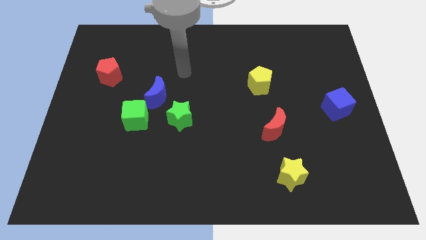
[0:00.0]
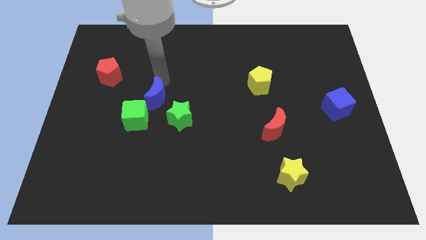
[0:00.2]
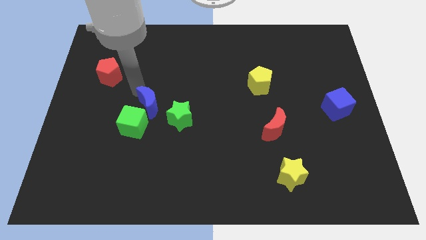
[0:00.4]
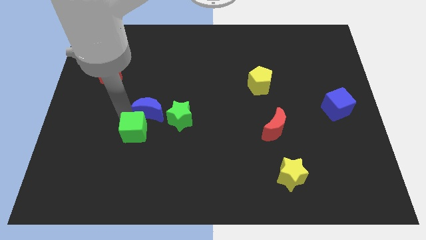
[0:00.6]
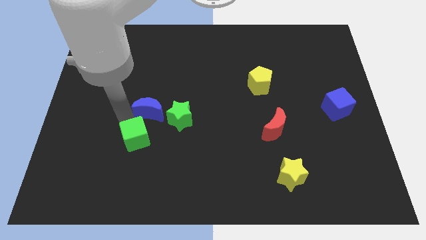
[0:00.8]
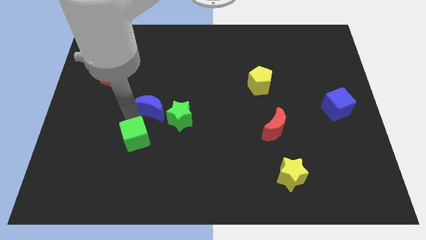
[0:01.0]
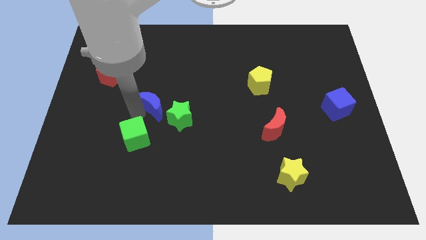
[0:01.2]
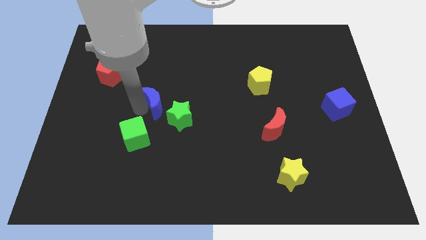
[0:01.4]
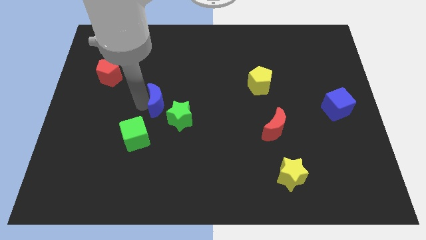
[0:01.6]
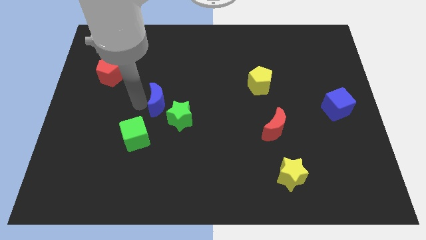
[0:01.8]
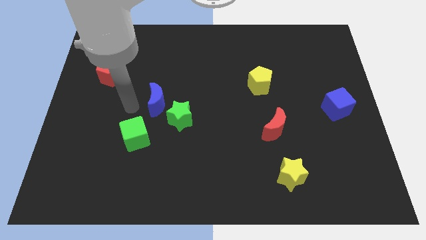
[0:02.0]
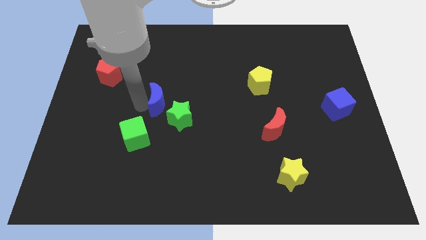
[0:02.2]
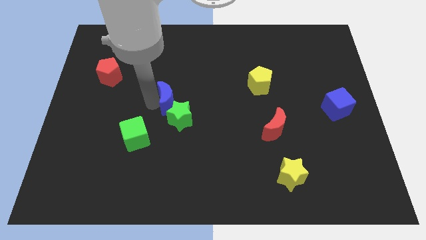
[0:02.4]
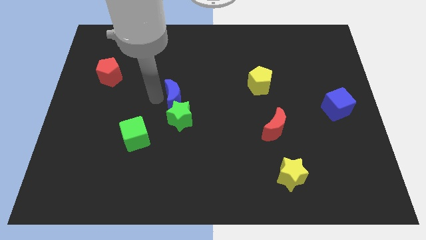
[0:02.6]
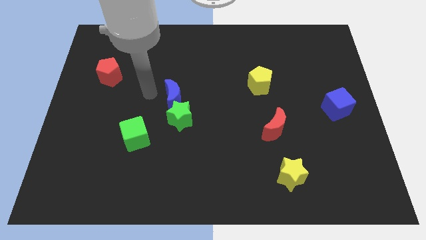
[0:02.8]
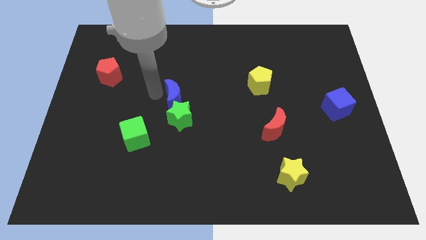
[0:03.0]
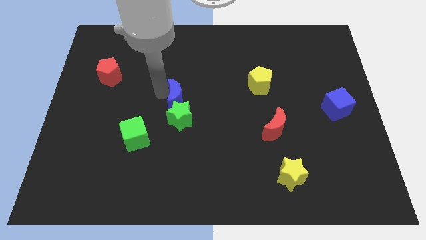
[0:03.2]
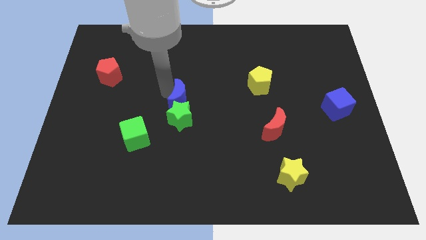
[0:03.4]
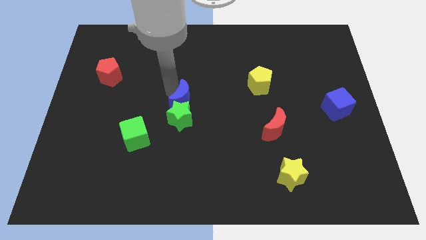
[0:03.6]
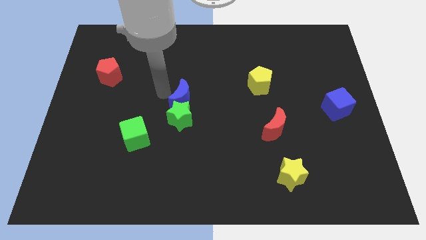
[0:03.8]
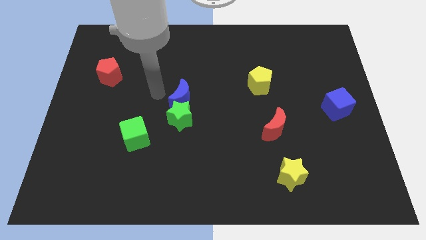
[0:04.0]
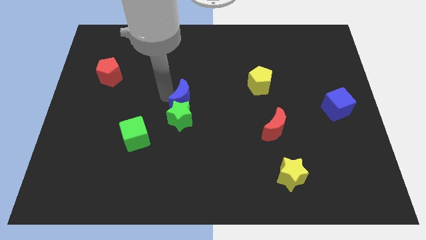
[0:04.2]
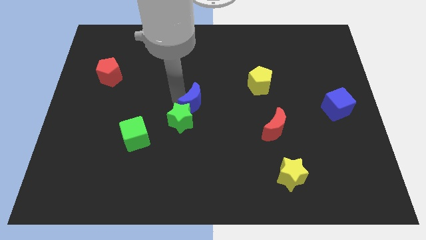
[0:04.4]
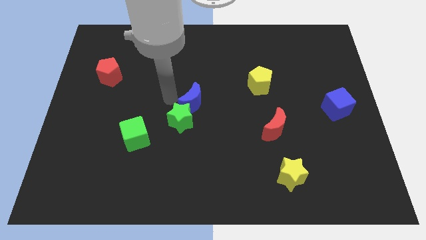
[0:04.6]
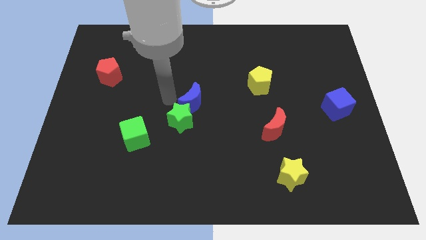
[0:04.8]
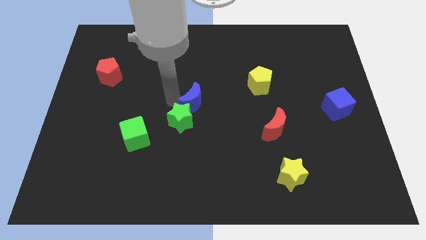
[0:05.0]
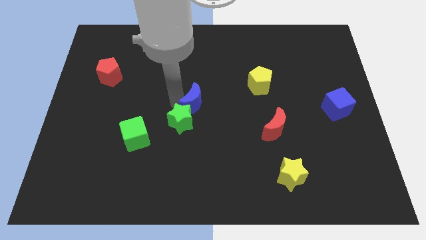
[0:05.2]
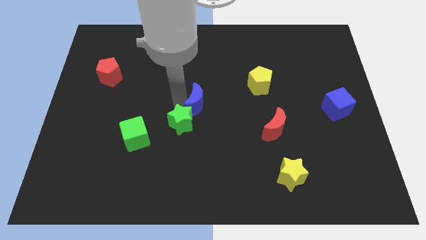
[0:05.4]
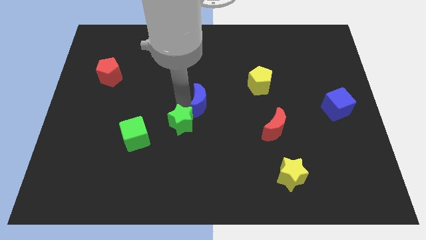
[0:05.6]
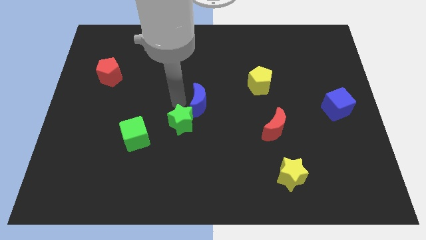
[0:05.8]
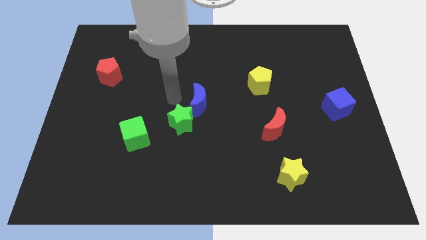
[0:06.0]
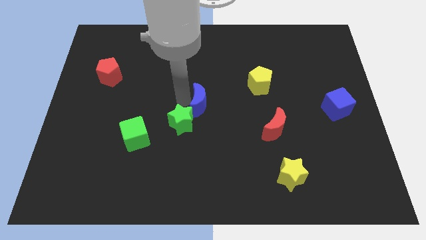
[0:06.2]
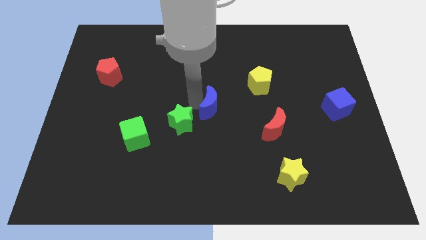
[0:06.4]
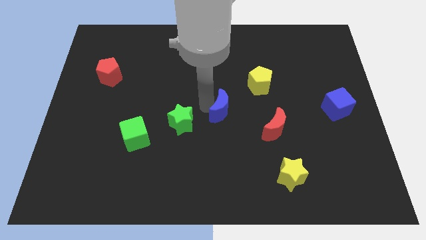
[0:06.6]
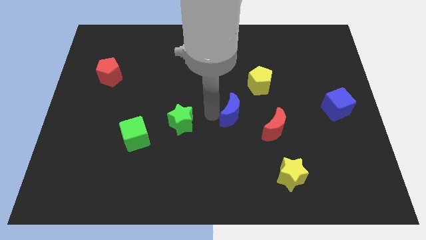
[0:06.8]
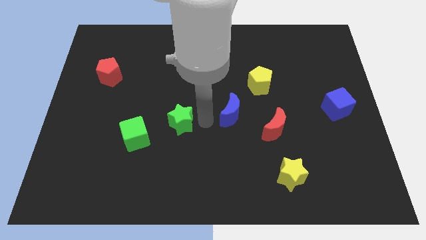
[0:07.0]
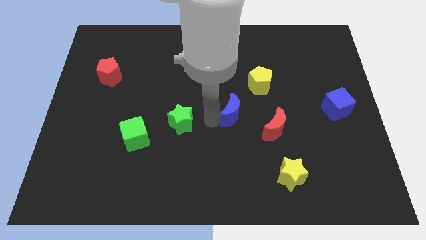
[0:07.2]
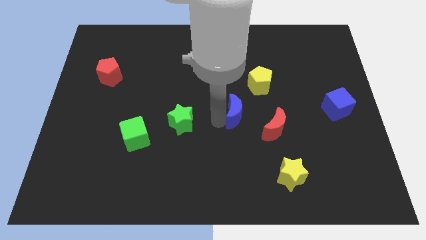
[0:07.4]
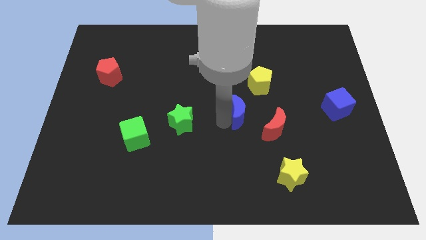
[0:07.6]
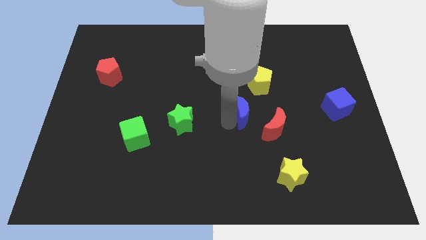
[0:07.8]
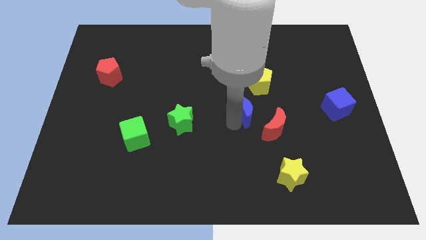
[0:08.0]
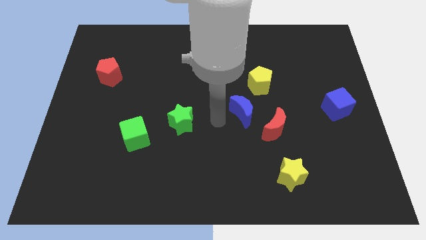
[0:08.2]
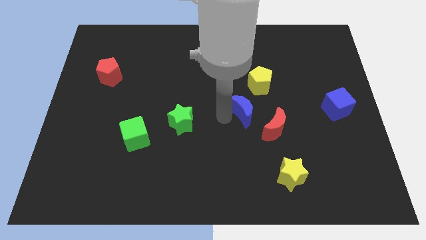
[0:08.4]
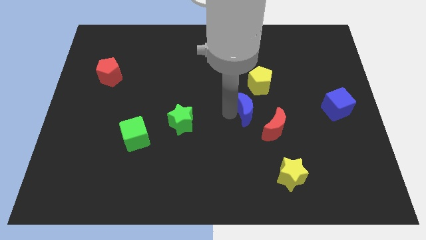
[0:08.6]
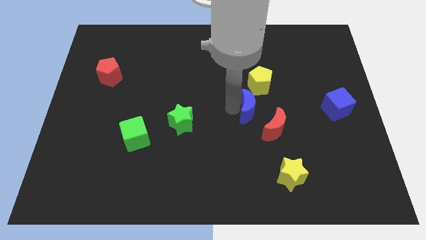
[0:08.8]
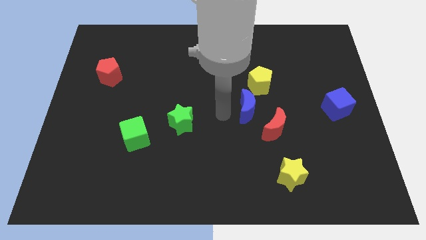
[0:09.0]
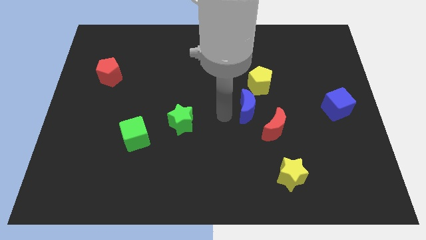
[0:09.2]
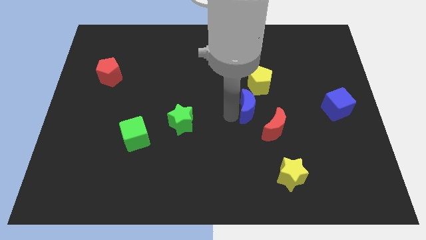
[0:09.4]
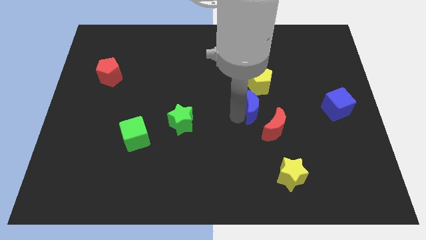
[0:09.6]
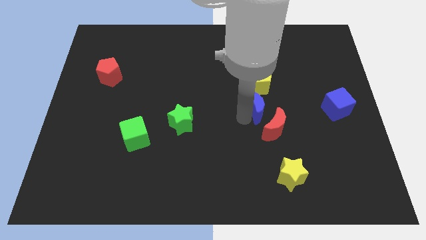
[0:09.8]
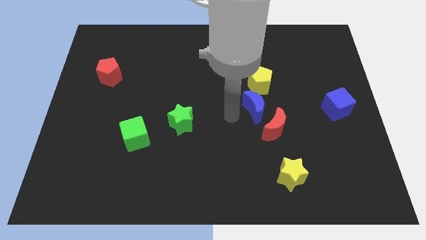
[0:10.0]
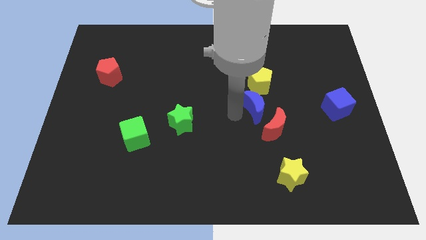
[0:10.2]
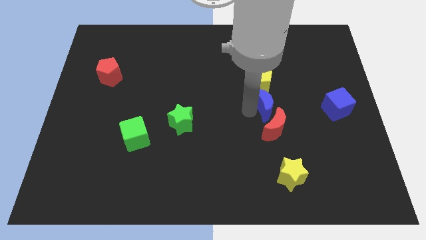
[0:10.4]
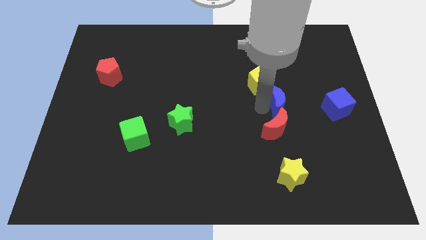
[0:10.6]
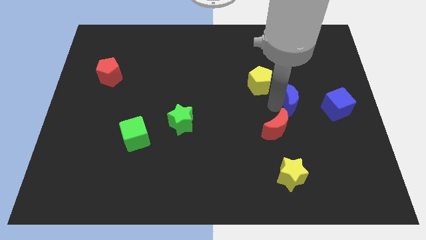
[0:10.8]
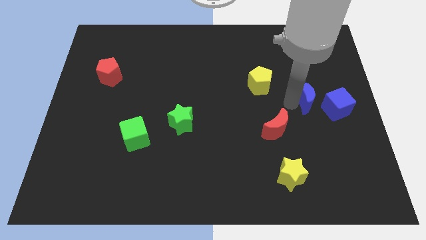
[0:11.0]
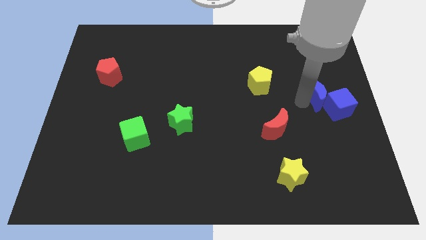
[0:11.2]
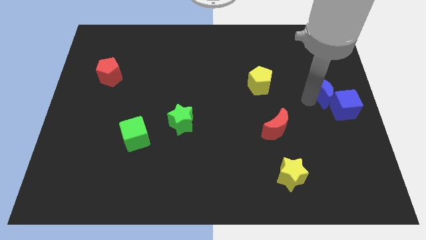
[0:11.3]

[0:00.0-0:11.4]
put the blue moon to the center right
